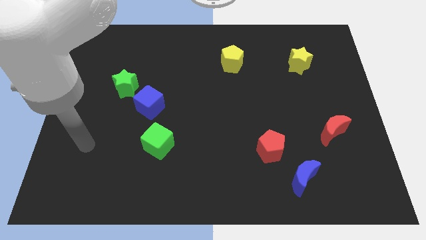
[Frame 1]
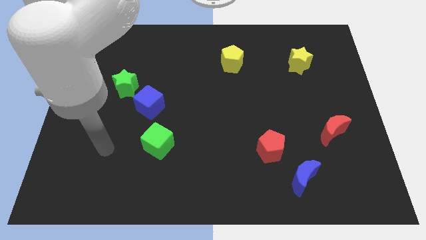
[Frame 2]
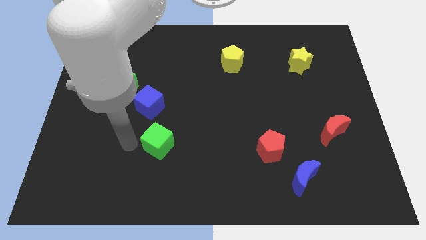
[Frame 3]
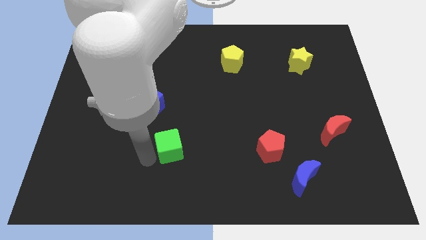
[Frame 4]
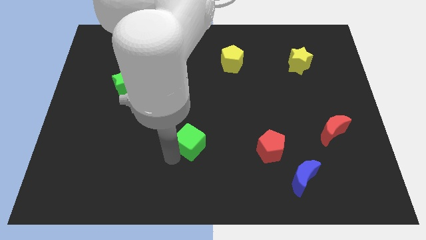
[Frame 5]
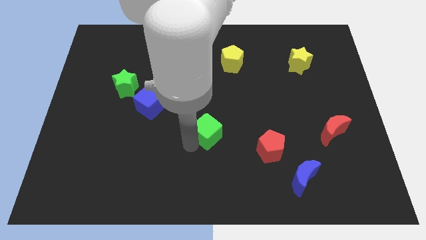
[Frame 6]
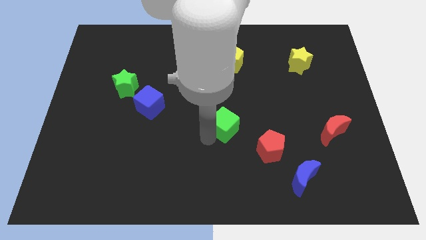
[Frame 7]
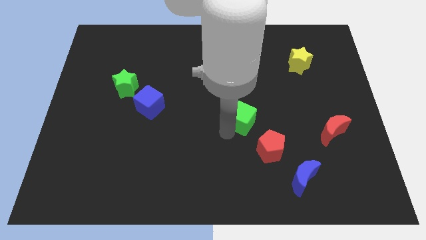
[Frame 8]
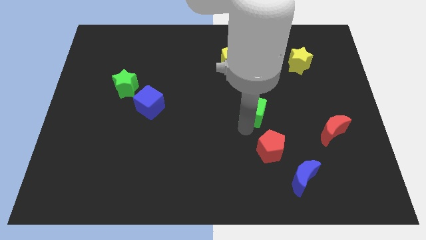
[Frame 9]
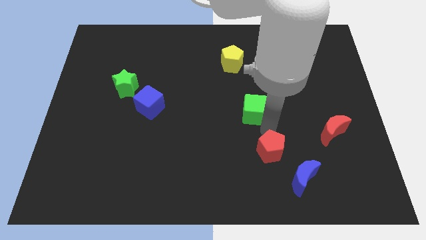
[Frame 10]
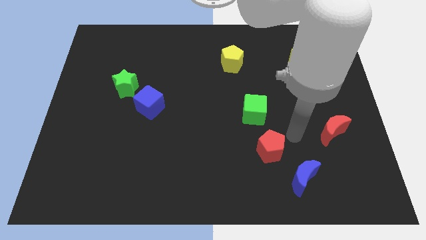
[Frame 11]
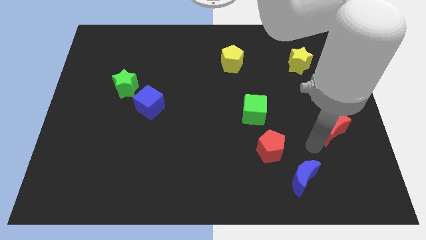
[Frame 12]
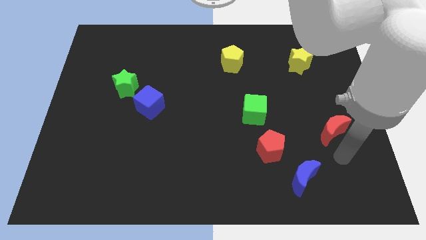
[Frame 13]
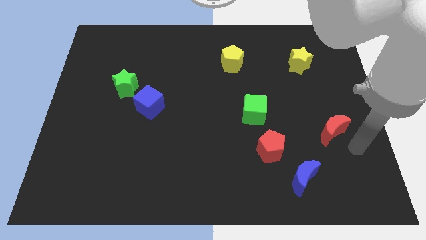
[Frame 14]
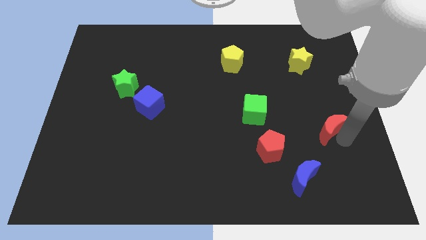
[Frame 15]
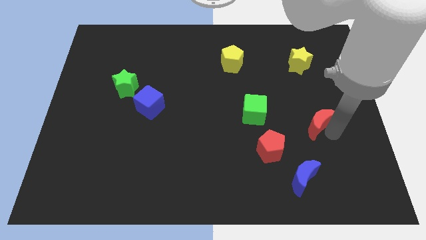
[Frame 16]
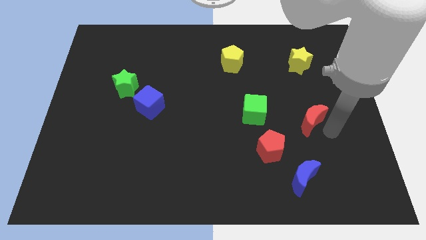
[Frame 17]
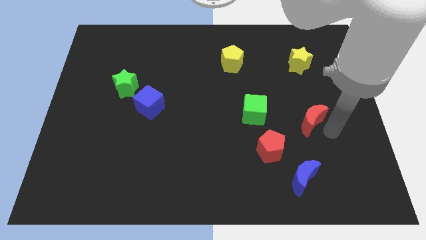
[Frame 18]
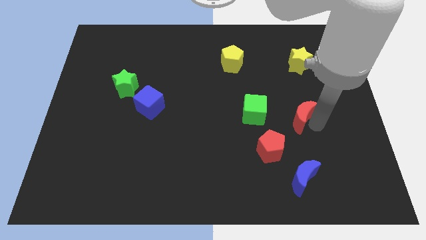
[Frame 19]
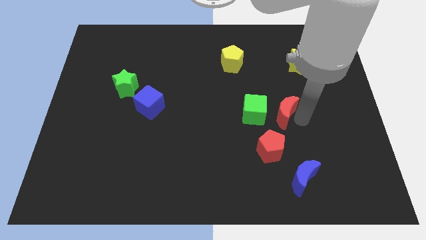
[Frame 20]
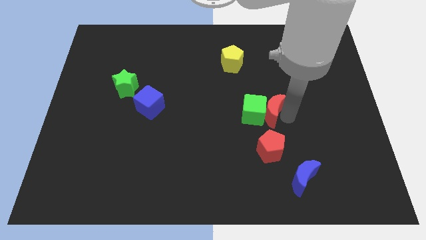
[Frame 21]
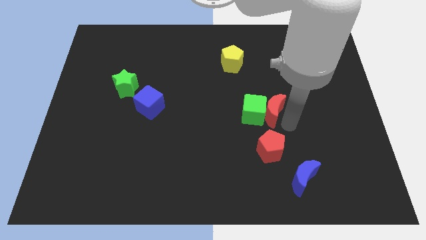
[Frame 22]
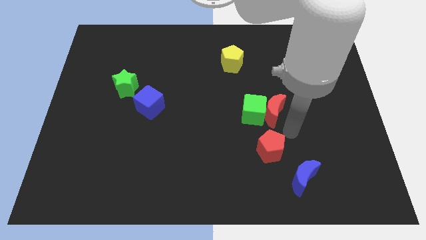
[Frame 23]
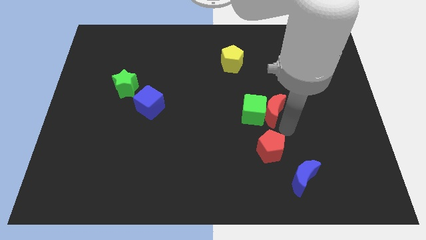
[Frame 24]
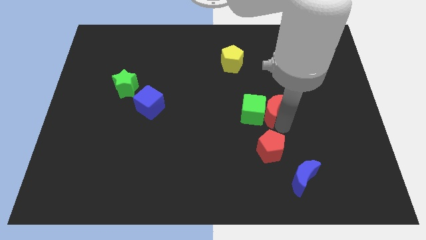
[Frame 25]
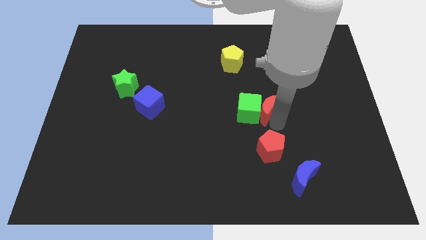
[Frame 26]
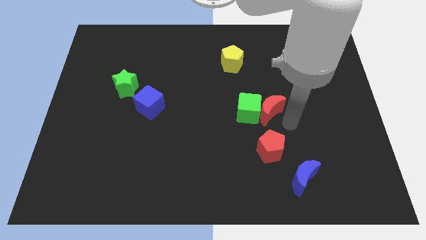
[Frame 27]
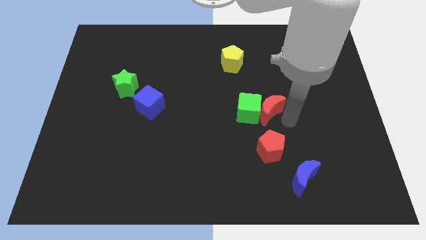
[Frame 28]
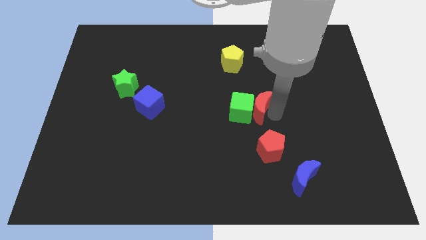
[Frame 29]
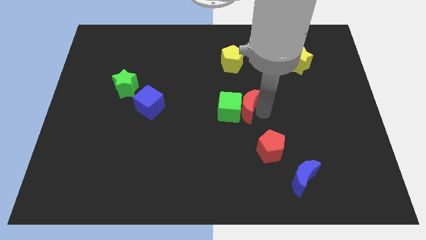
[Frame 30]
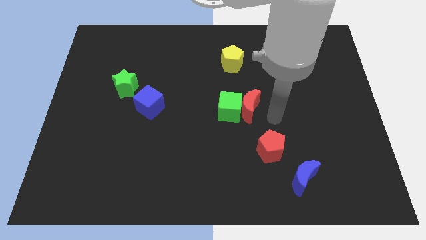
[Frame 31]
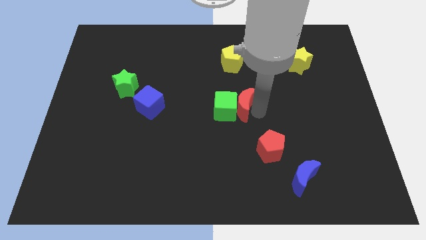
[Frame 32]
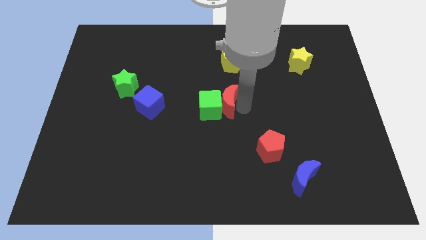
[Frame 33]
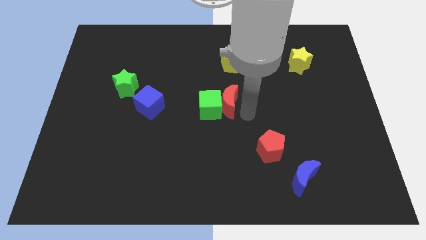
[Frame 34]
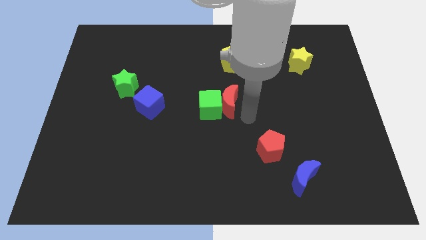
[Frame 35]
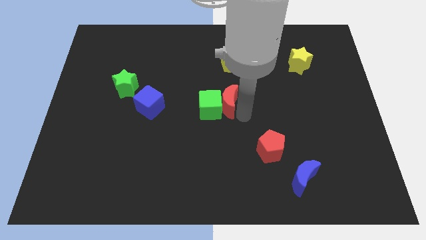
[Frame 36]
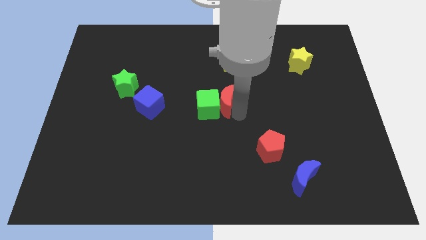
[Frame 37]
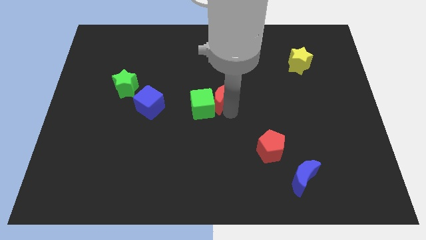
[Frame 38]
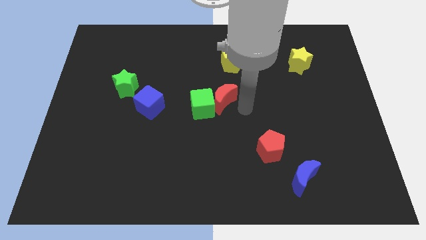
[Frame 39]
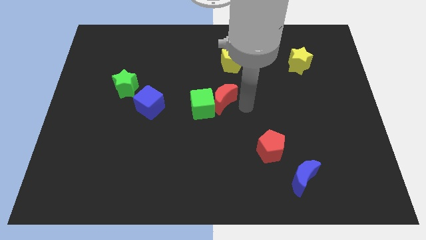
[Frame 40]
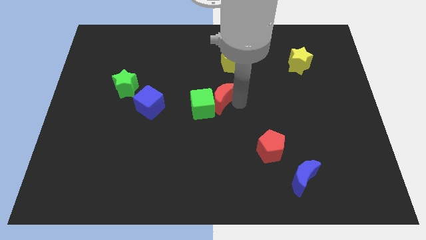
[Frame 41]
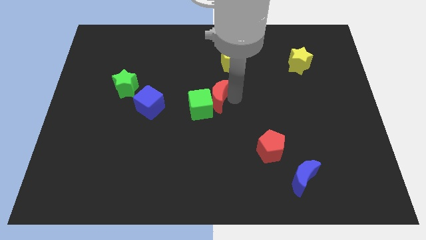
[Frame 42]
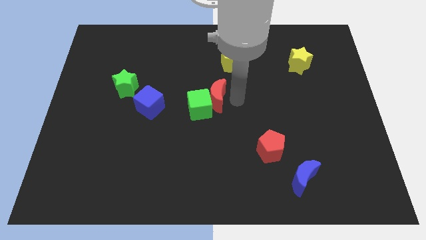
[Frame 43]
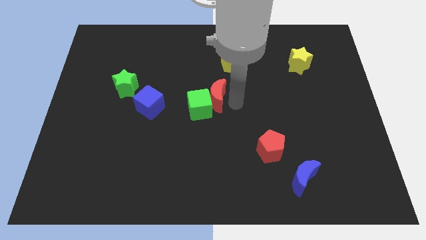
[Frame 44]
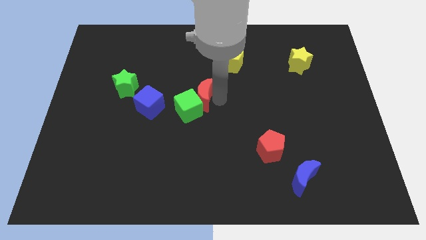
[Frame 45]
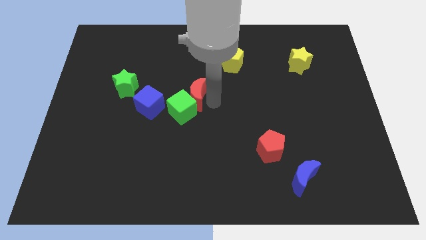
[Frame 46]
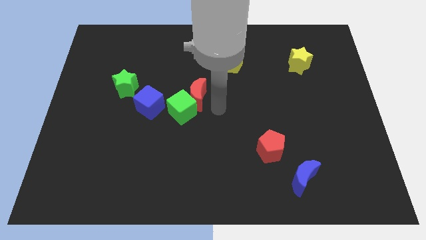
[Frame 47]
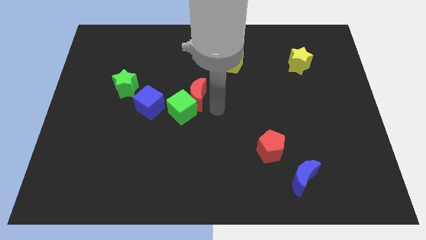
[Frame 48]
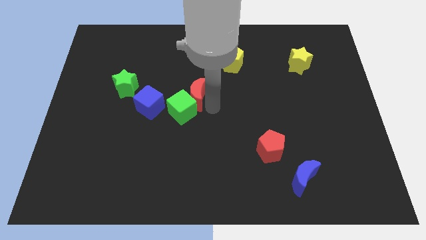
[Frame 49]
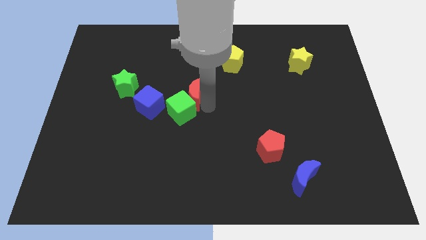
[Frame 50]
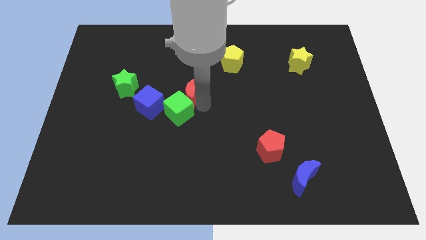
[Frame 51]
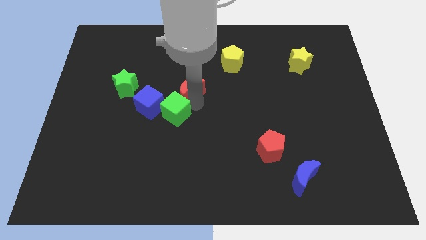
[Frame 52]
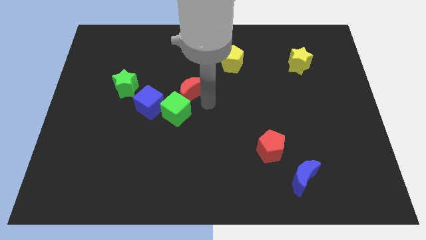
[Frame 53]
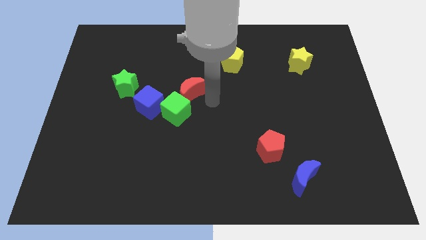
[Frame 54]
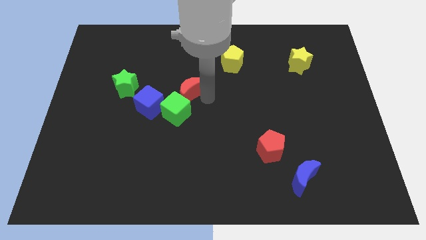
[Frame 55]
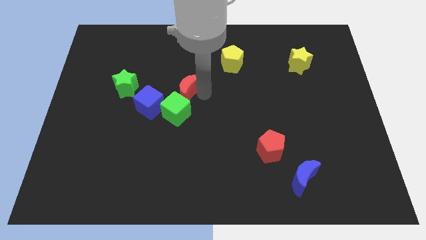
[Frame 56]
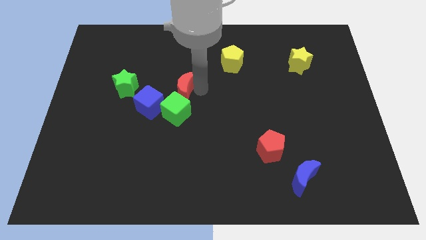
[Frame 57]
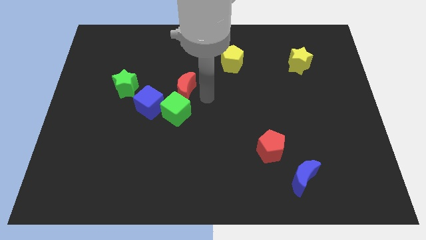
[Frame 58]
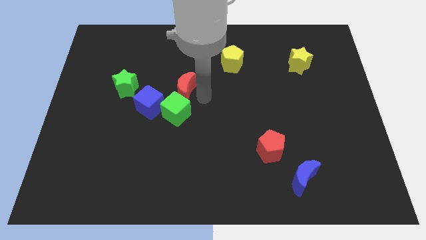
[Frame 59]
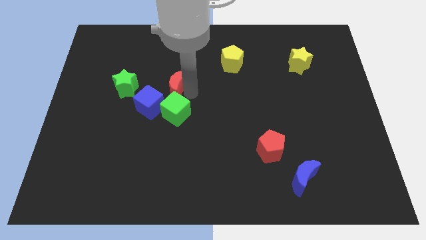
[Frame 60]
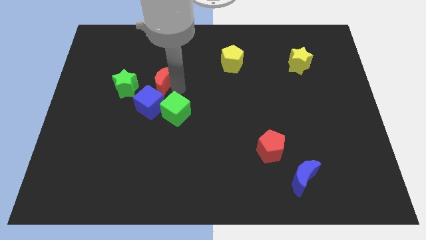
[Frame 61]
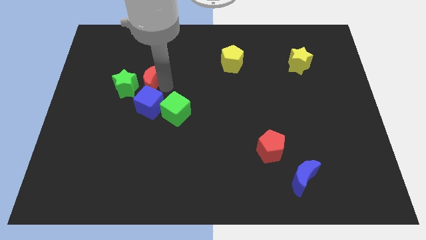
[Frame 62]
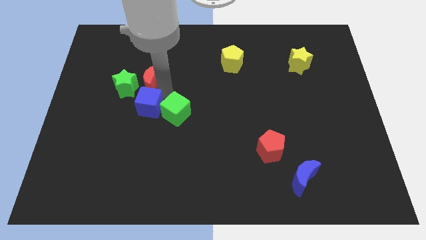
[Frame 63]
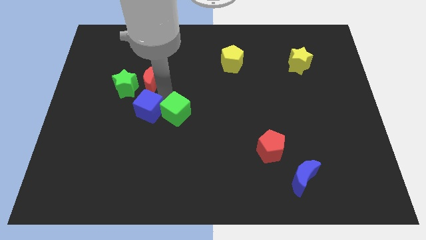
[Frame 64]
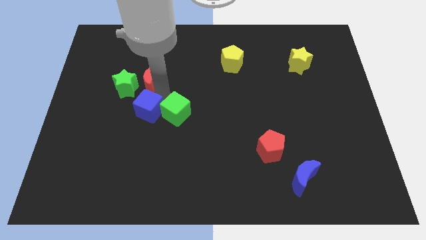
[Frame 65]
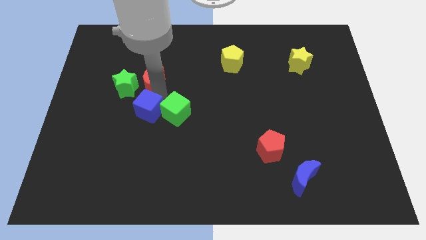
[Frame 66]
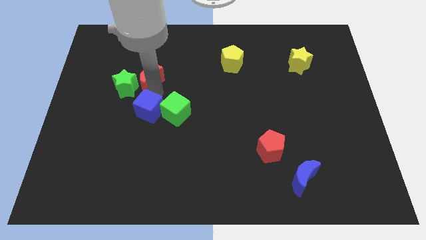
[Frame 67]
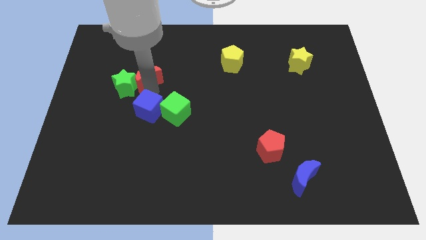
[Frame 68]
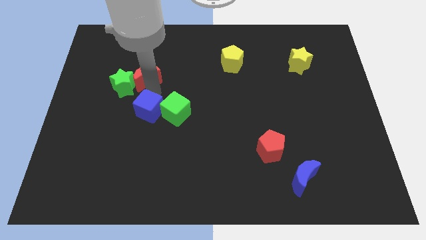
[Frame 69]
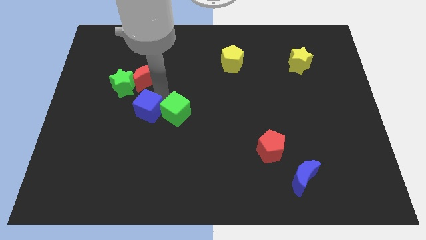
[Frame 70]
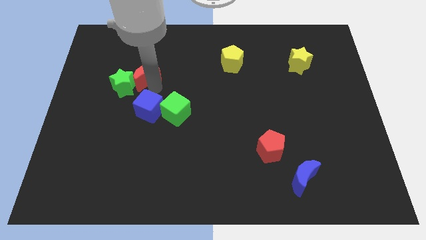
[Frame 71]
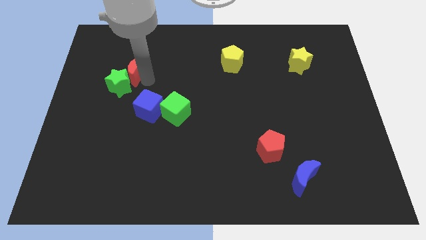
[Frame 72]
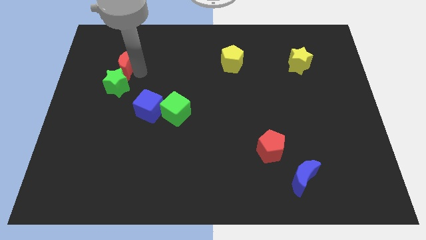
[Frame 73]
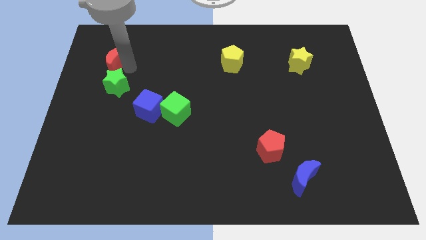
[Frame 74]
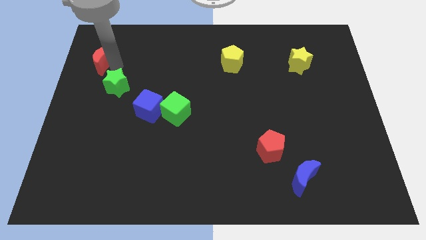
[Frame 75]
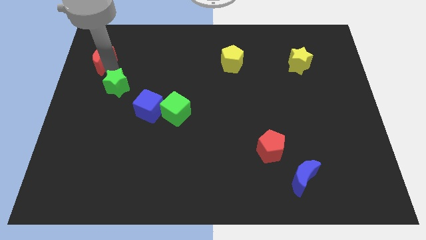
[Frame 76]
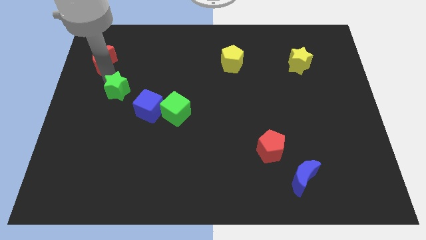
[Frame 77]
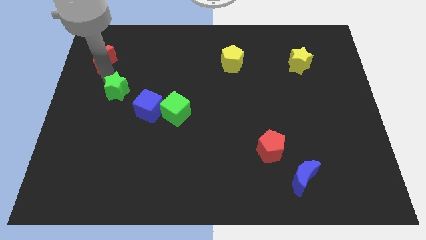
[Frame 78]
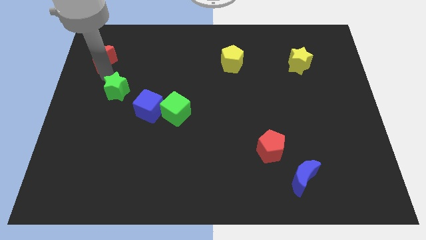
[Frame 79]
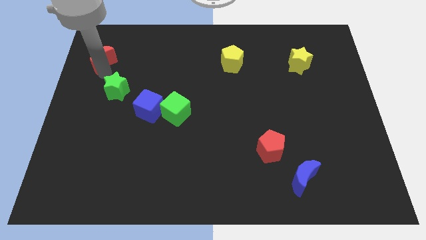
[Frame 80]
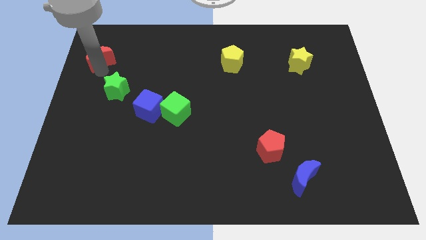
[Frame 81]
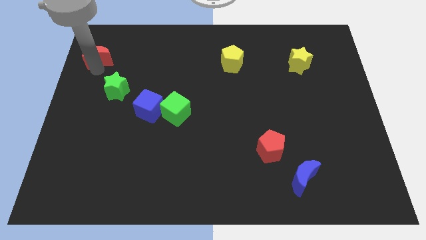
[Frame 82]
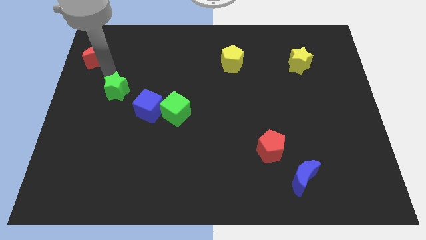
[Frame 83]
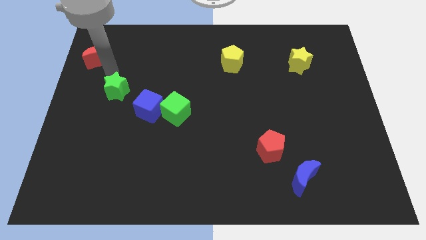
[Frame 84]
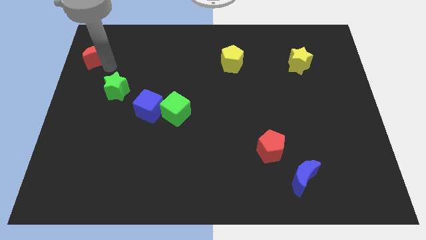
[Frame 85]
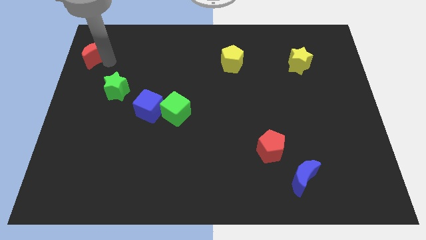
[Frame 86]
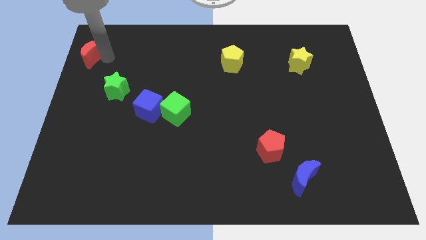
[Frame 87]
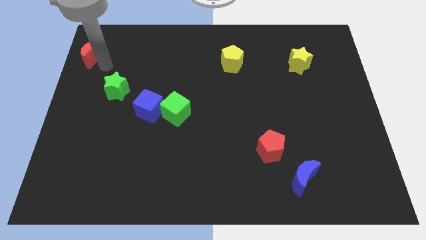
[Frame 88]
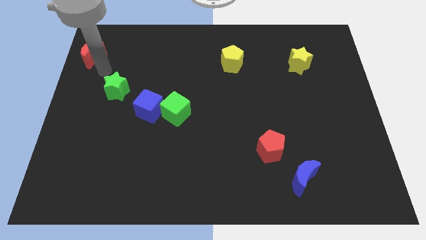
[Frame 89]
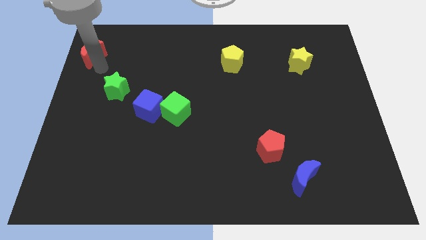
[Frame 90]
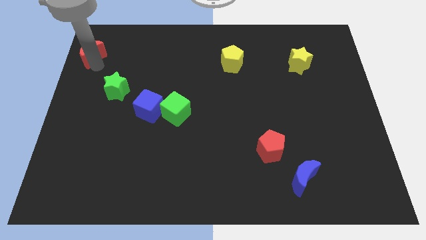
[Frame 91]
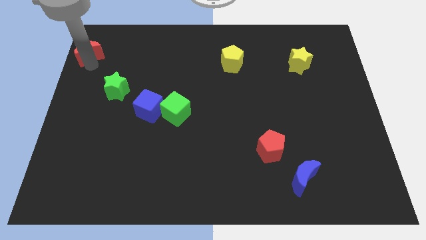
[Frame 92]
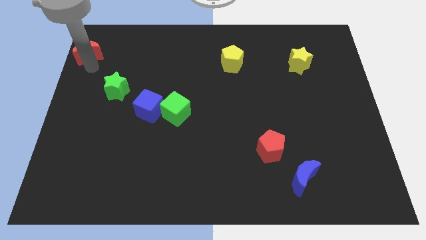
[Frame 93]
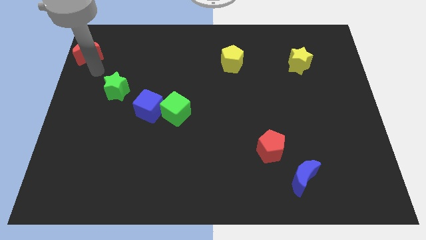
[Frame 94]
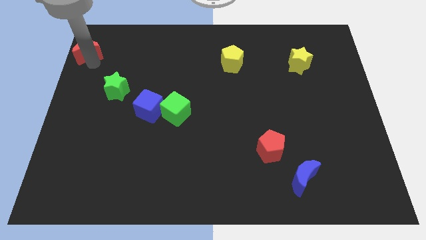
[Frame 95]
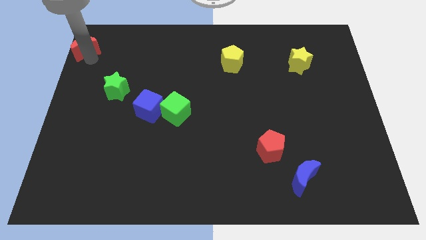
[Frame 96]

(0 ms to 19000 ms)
move the red moon to the top left corner
